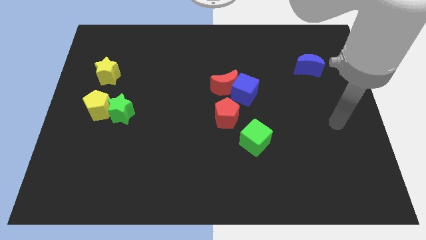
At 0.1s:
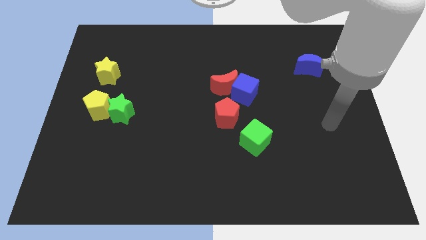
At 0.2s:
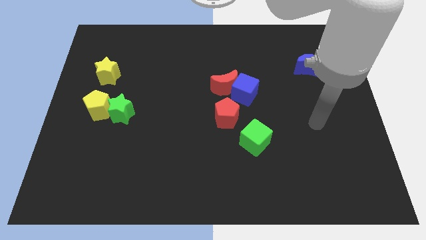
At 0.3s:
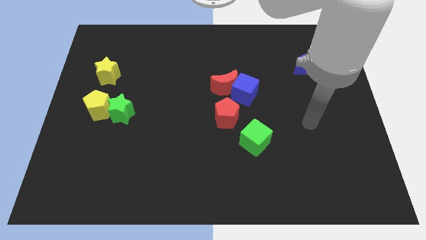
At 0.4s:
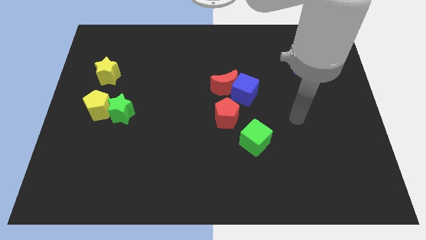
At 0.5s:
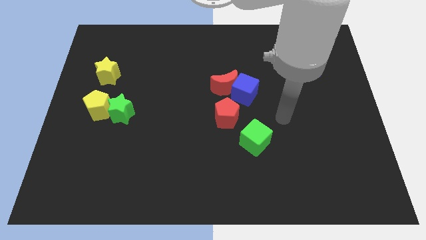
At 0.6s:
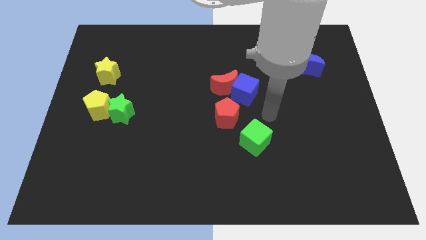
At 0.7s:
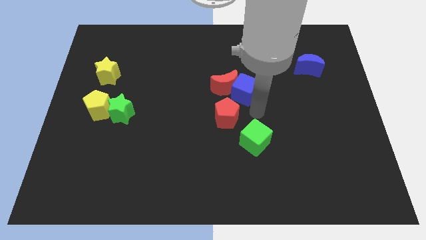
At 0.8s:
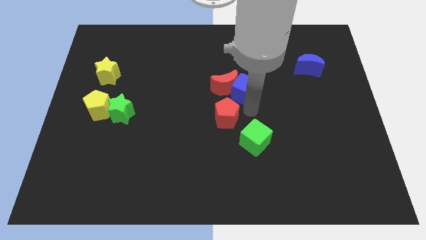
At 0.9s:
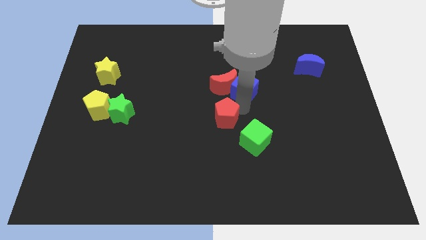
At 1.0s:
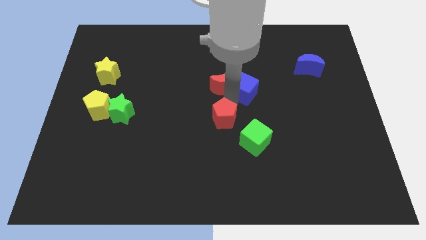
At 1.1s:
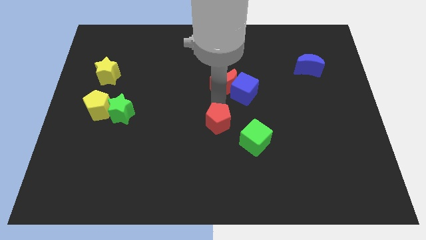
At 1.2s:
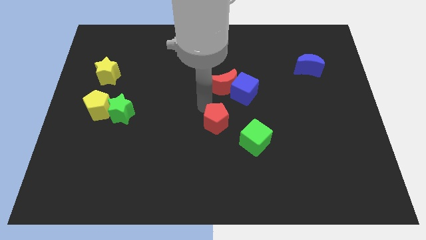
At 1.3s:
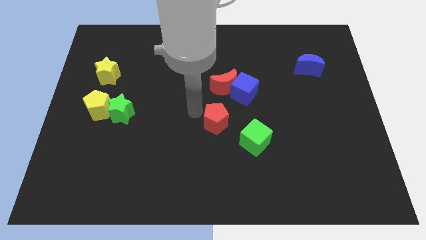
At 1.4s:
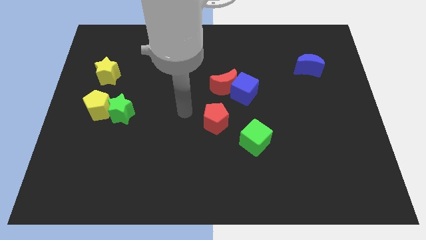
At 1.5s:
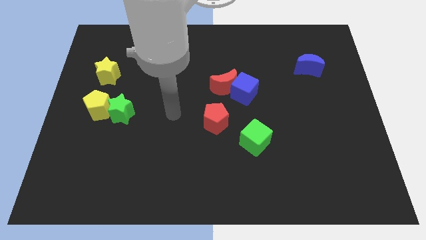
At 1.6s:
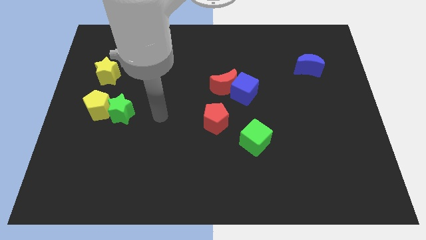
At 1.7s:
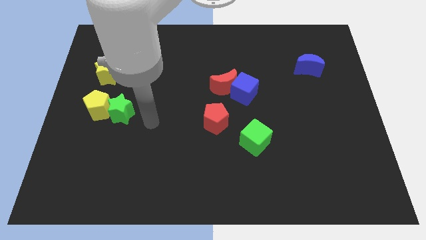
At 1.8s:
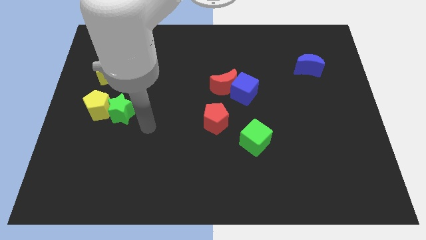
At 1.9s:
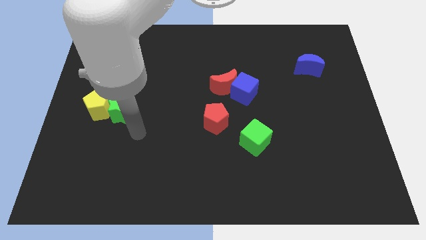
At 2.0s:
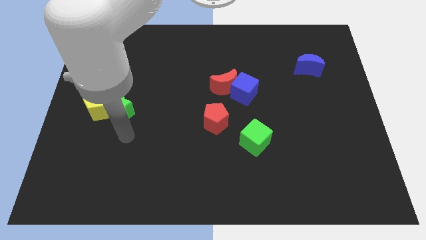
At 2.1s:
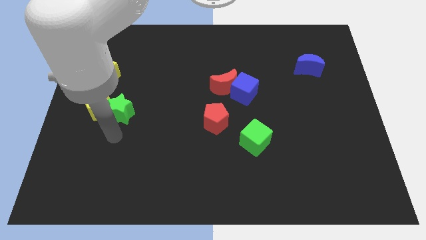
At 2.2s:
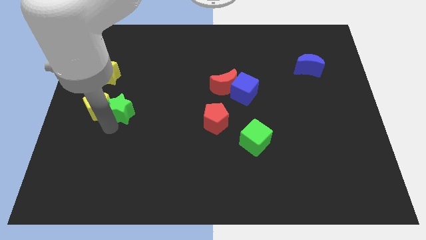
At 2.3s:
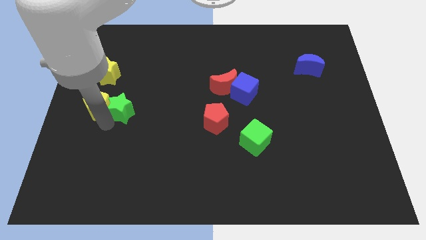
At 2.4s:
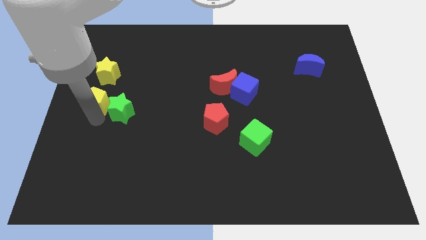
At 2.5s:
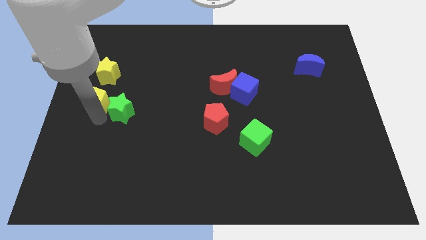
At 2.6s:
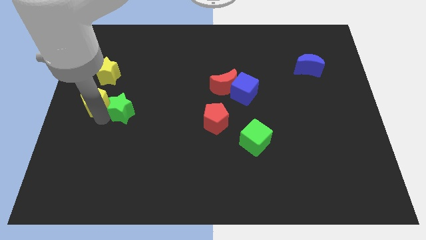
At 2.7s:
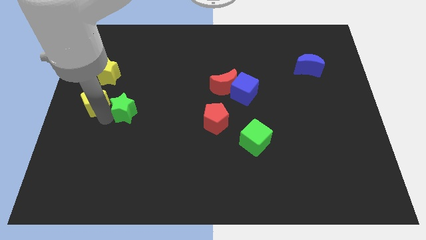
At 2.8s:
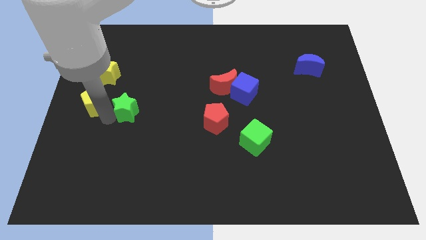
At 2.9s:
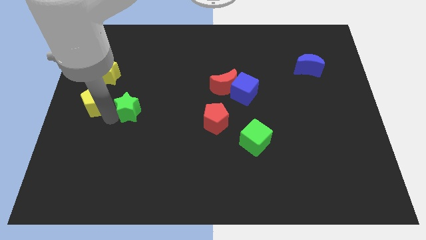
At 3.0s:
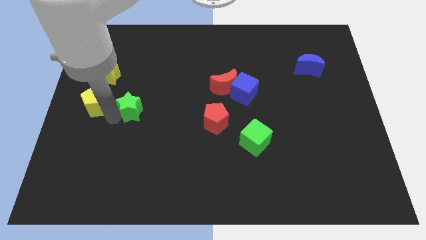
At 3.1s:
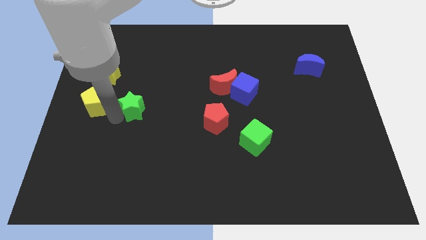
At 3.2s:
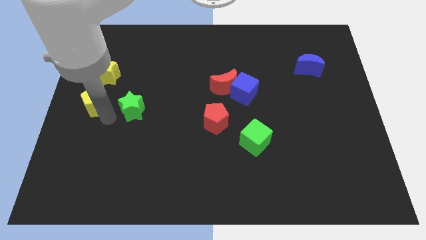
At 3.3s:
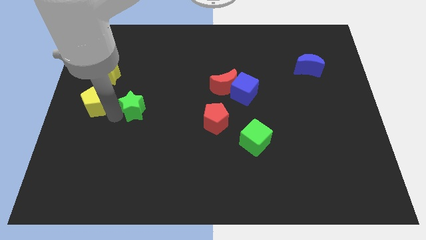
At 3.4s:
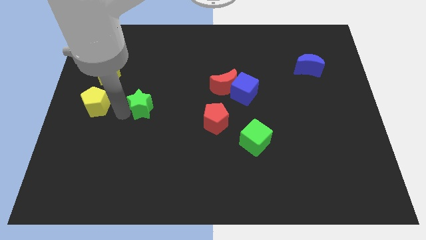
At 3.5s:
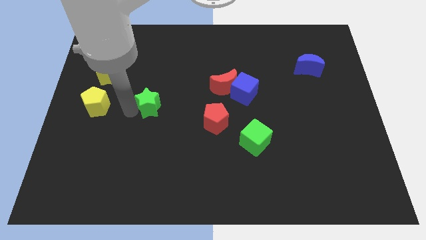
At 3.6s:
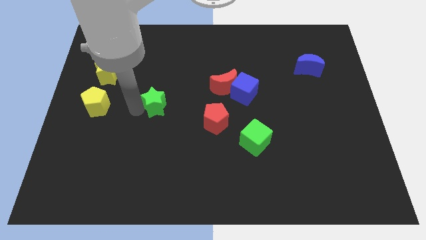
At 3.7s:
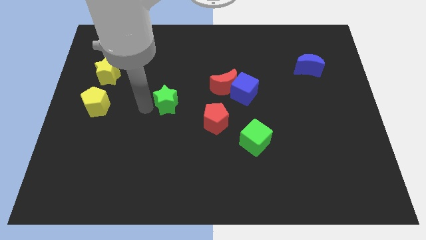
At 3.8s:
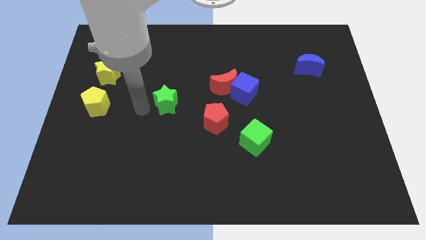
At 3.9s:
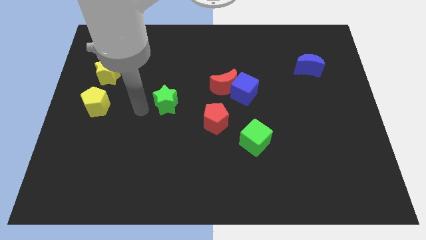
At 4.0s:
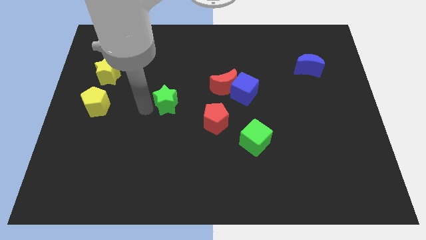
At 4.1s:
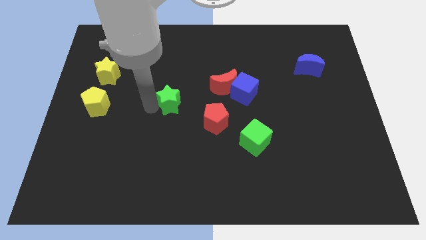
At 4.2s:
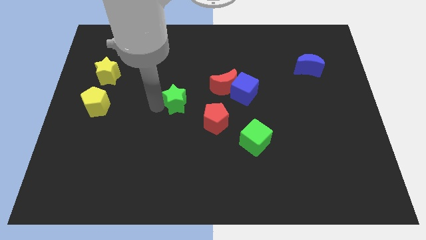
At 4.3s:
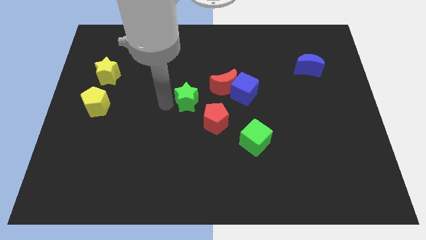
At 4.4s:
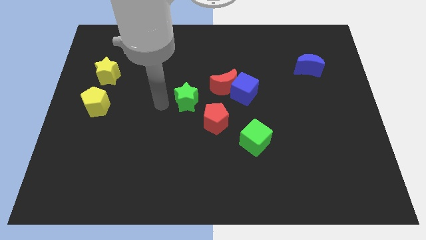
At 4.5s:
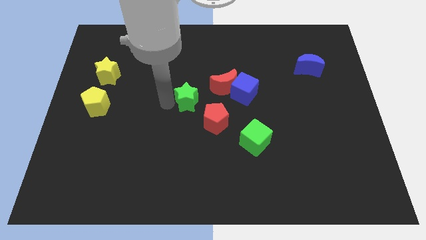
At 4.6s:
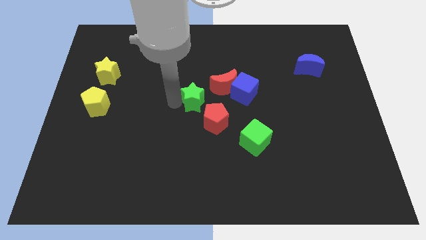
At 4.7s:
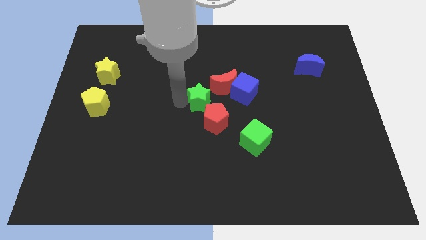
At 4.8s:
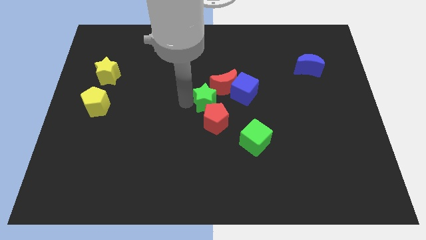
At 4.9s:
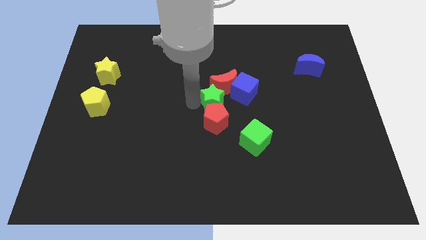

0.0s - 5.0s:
move the green star to the red moon

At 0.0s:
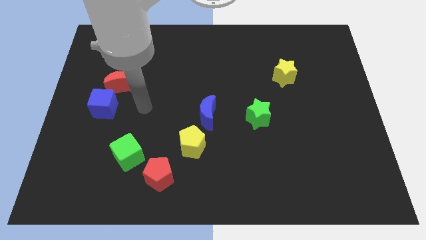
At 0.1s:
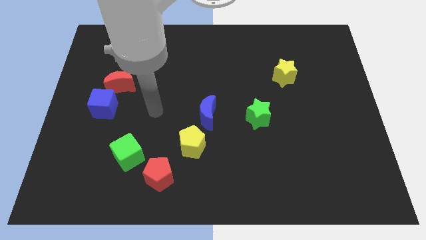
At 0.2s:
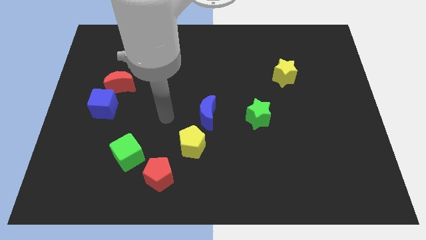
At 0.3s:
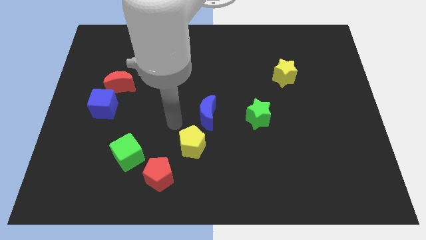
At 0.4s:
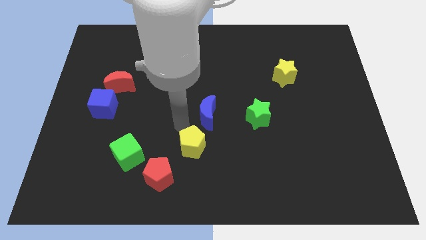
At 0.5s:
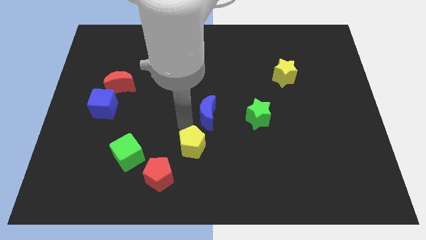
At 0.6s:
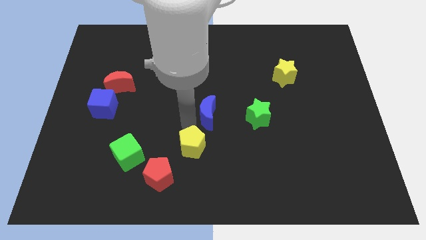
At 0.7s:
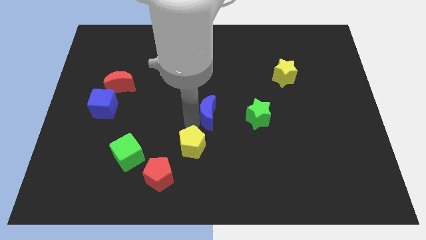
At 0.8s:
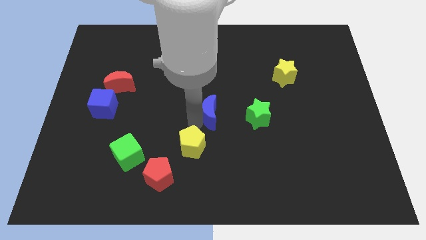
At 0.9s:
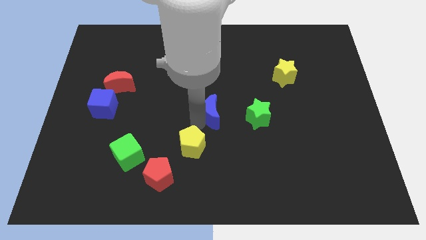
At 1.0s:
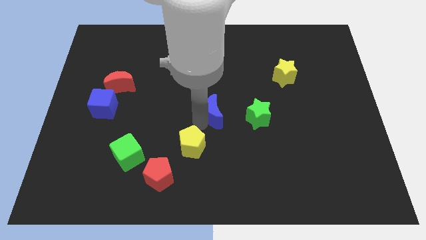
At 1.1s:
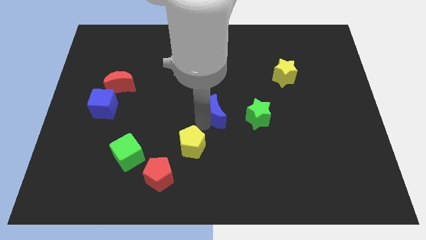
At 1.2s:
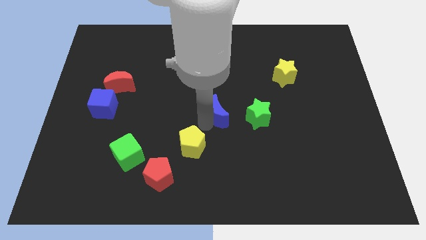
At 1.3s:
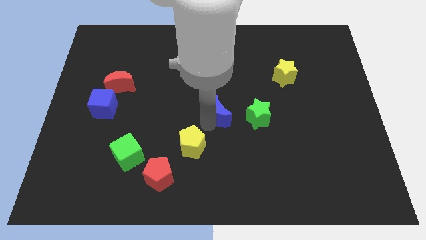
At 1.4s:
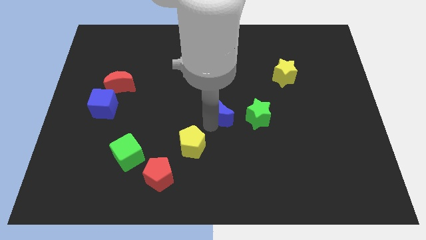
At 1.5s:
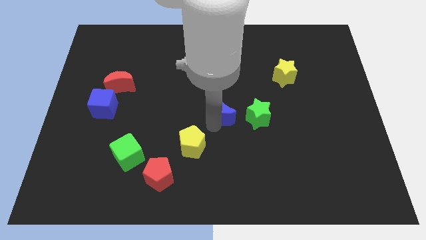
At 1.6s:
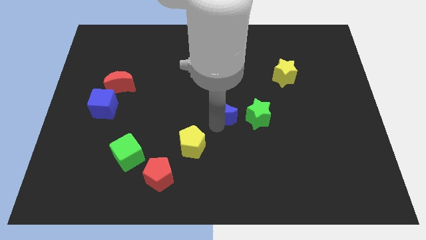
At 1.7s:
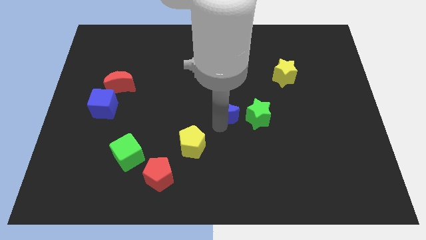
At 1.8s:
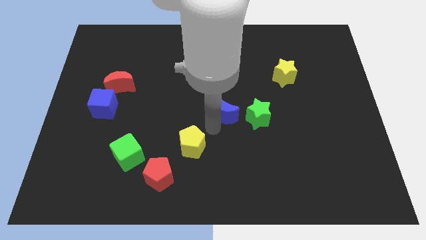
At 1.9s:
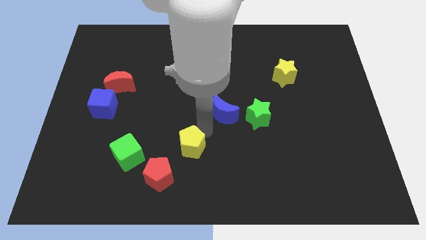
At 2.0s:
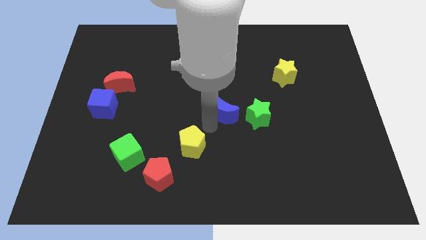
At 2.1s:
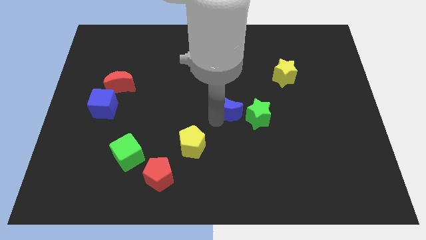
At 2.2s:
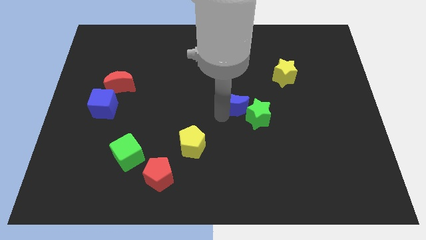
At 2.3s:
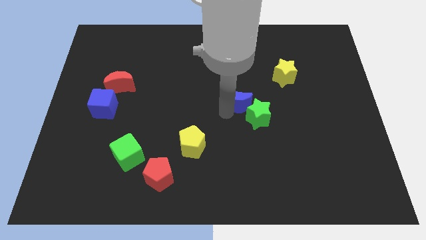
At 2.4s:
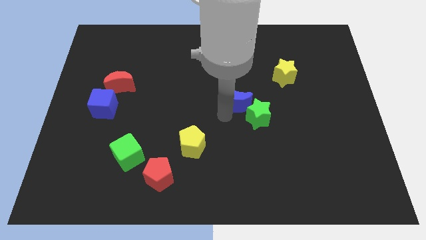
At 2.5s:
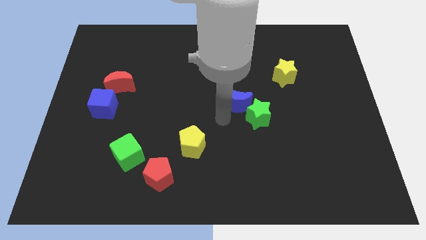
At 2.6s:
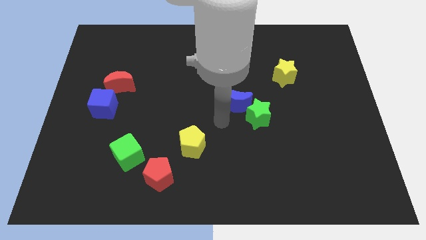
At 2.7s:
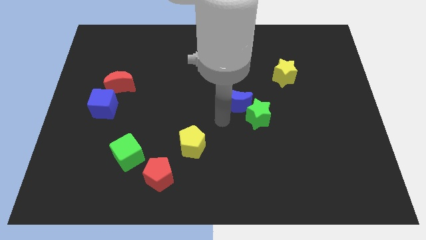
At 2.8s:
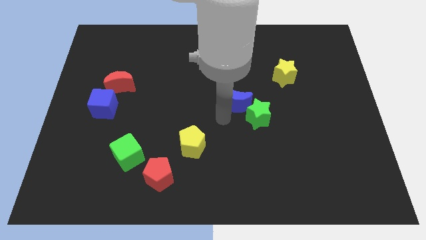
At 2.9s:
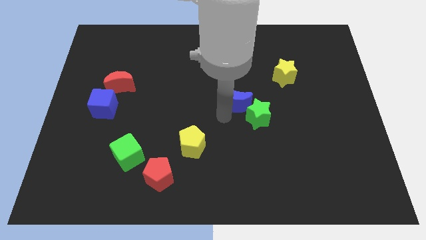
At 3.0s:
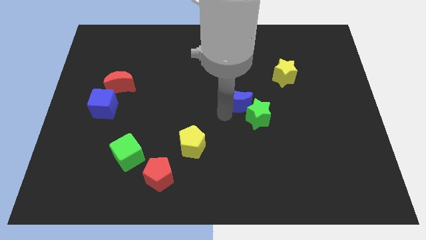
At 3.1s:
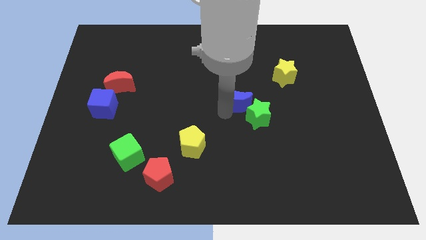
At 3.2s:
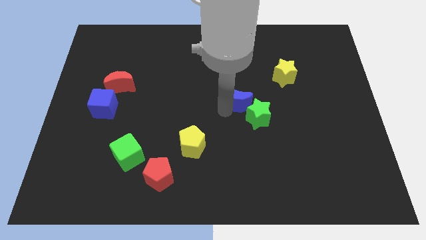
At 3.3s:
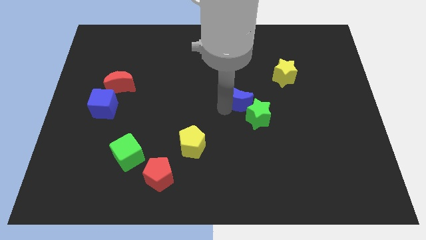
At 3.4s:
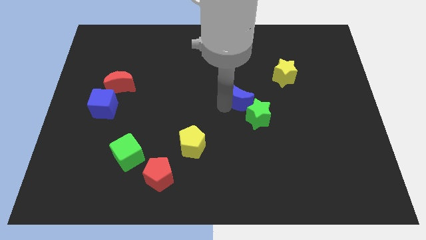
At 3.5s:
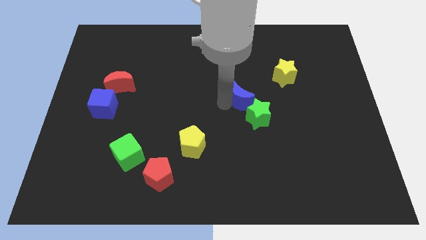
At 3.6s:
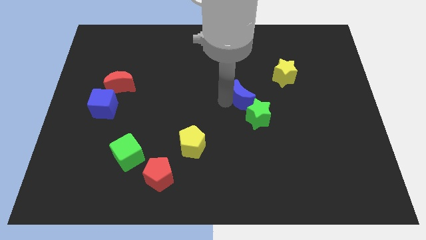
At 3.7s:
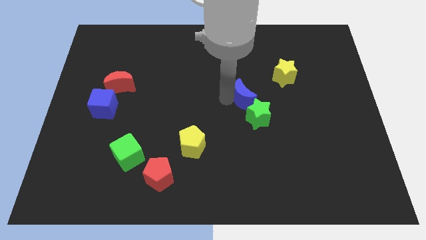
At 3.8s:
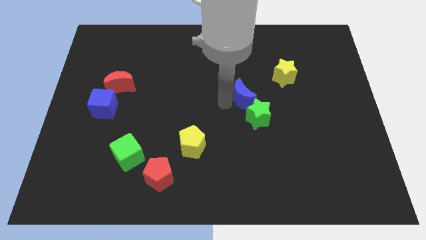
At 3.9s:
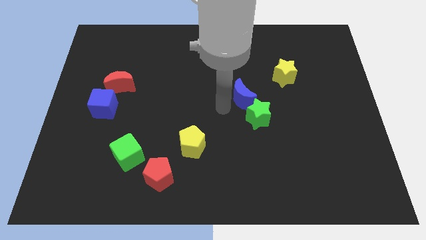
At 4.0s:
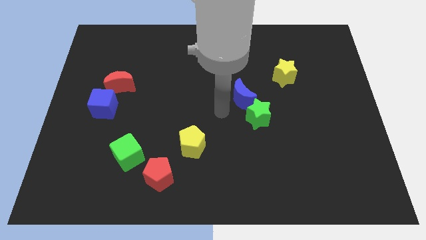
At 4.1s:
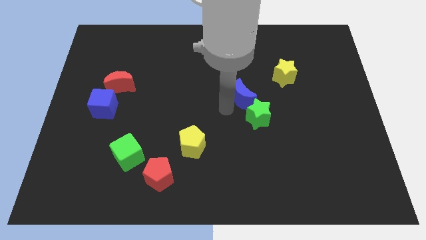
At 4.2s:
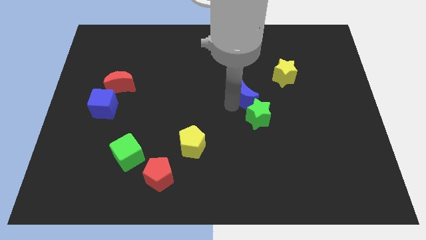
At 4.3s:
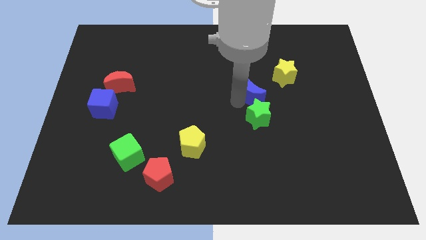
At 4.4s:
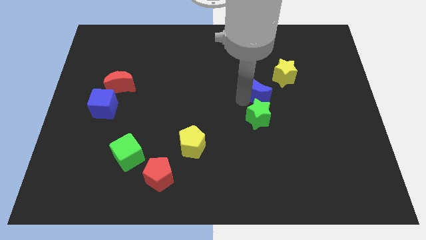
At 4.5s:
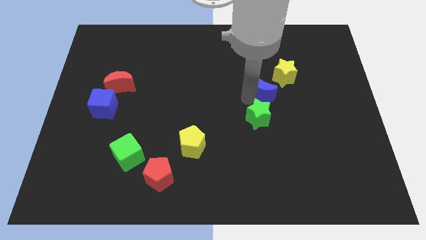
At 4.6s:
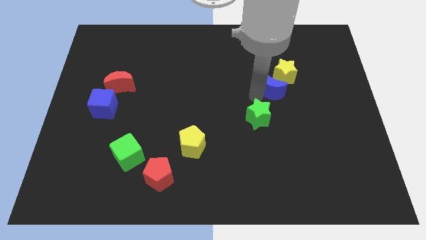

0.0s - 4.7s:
push the blue moon next to the yellow star
